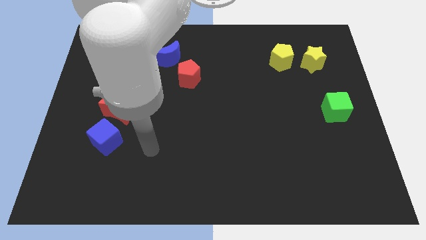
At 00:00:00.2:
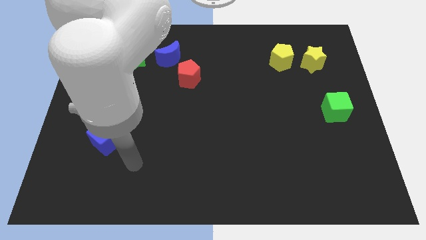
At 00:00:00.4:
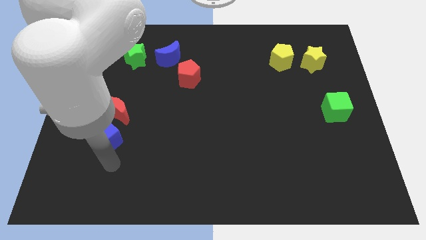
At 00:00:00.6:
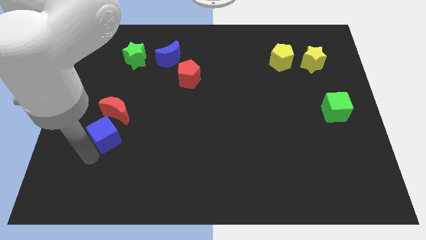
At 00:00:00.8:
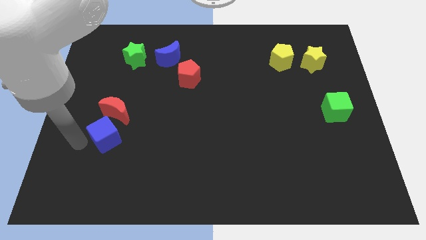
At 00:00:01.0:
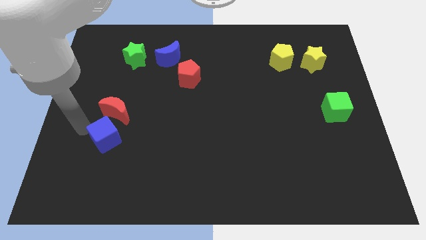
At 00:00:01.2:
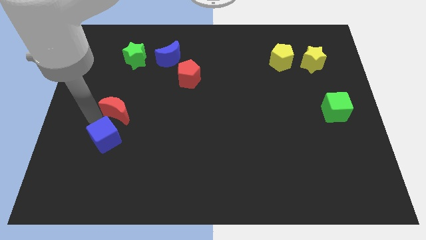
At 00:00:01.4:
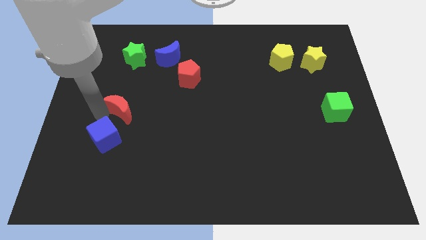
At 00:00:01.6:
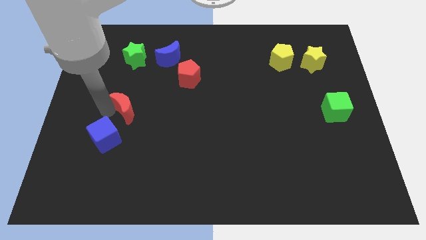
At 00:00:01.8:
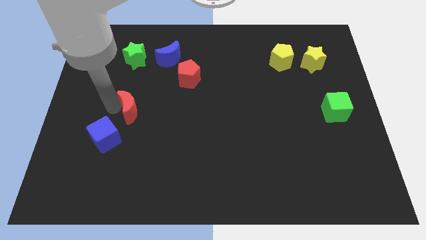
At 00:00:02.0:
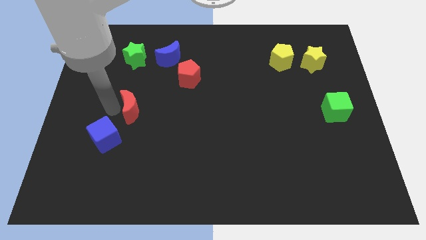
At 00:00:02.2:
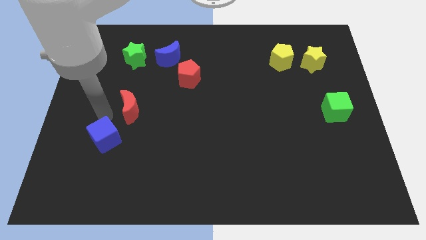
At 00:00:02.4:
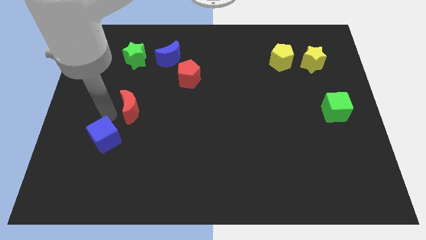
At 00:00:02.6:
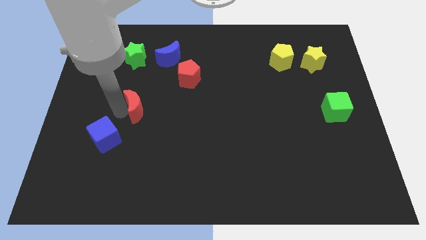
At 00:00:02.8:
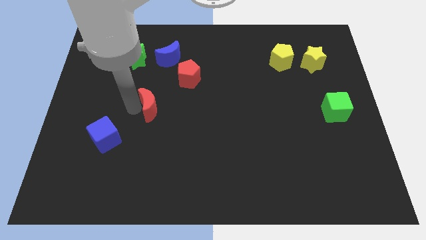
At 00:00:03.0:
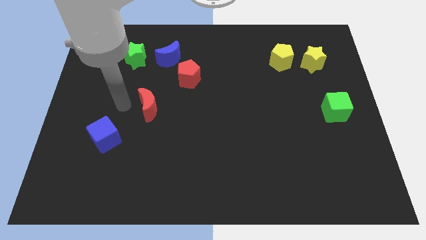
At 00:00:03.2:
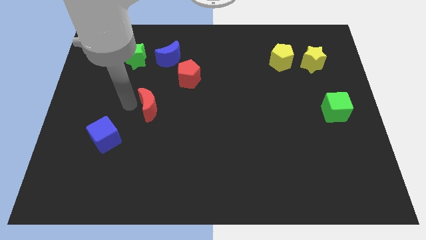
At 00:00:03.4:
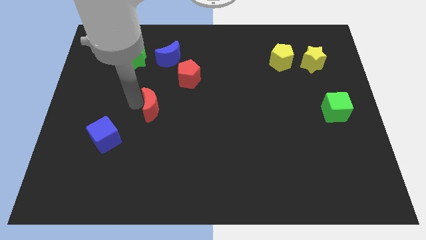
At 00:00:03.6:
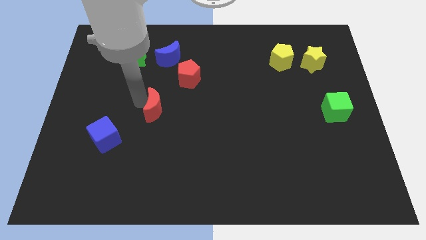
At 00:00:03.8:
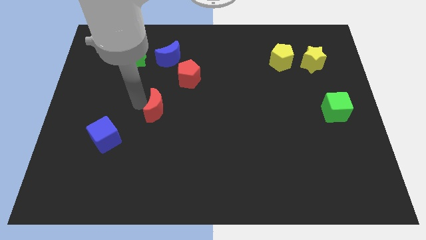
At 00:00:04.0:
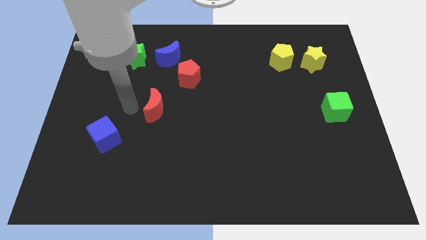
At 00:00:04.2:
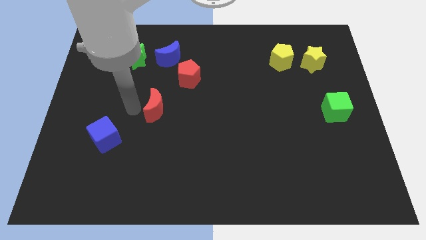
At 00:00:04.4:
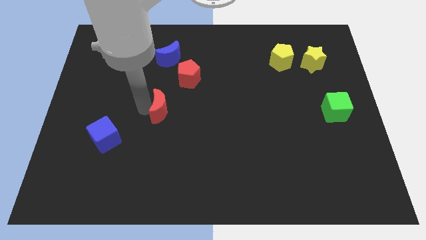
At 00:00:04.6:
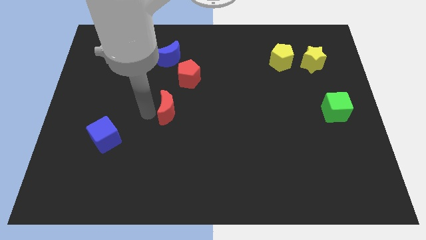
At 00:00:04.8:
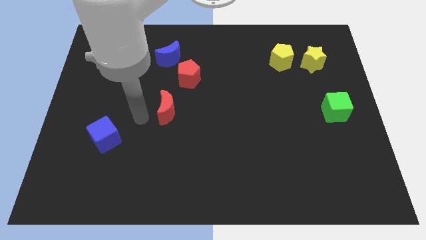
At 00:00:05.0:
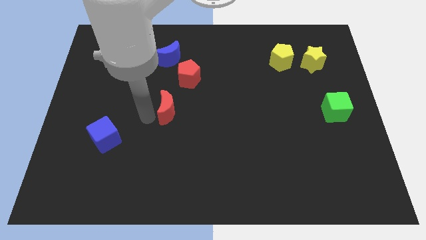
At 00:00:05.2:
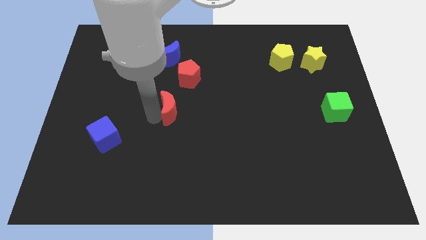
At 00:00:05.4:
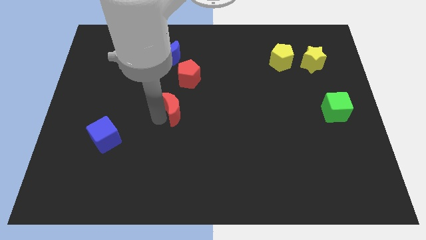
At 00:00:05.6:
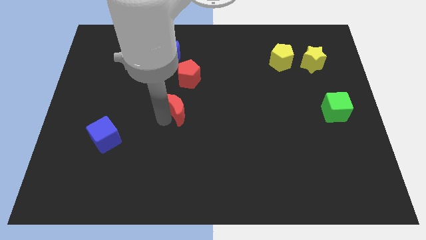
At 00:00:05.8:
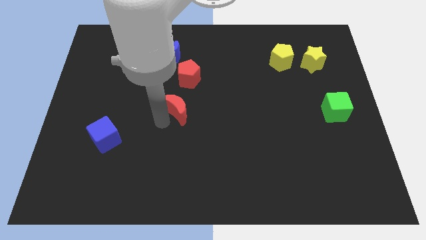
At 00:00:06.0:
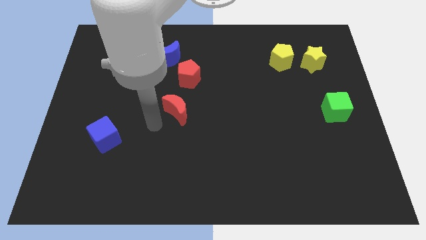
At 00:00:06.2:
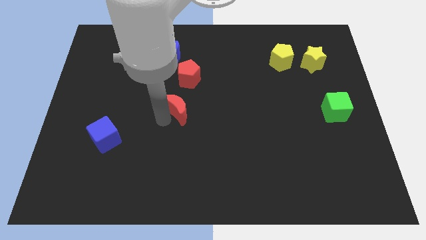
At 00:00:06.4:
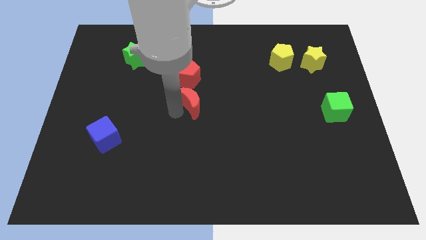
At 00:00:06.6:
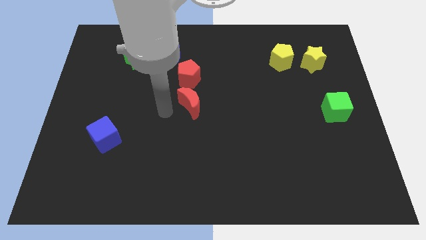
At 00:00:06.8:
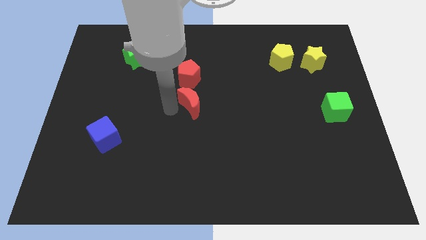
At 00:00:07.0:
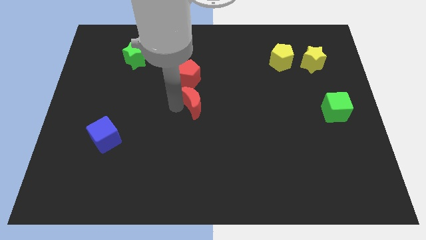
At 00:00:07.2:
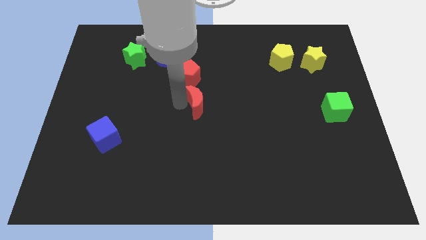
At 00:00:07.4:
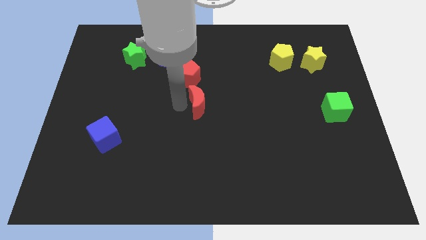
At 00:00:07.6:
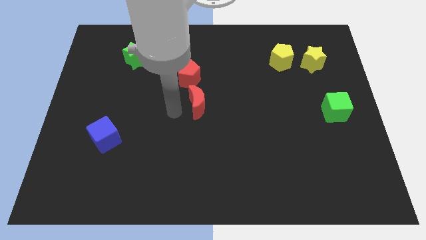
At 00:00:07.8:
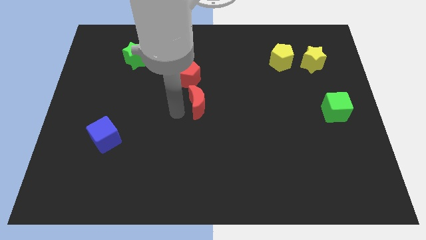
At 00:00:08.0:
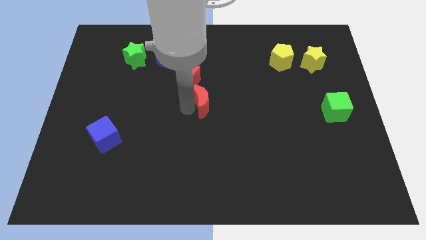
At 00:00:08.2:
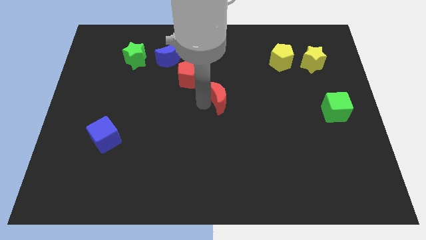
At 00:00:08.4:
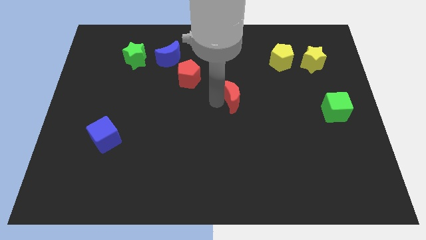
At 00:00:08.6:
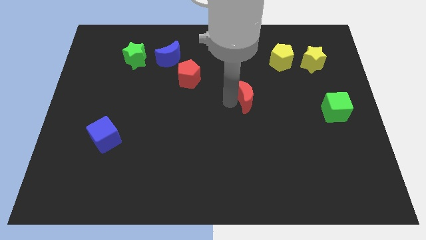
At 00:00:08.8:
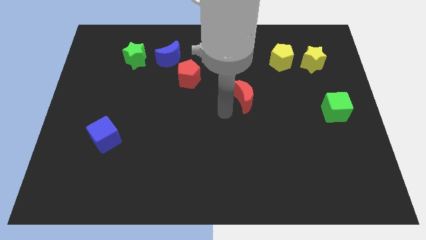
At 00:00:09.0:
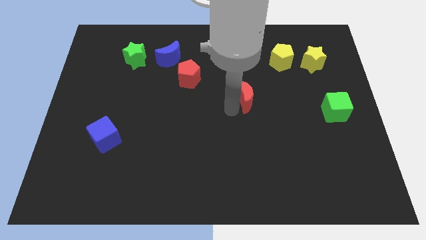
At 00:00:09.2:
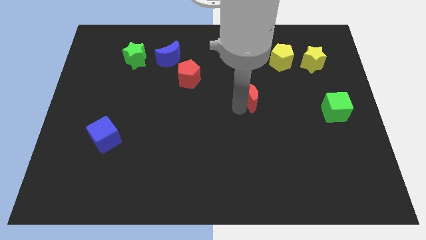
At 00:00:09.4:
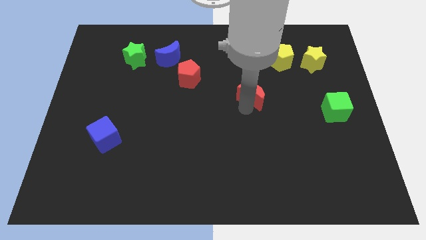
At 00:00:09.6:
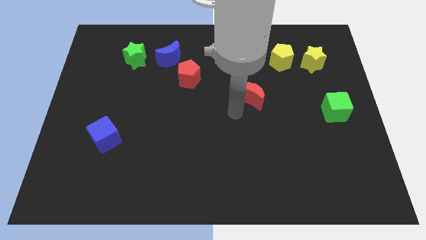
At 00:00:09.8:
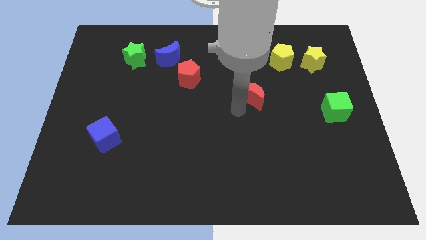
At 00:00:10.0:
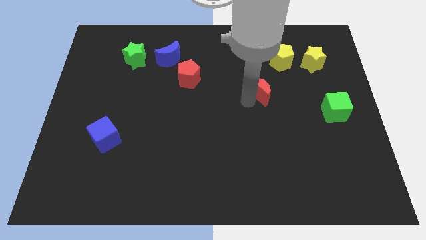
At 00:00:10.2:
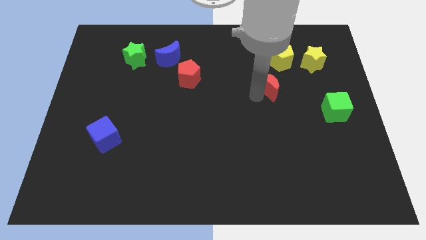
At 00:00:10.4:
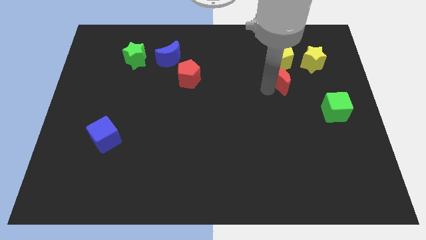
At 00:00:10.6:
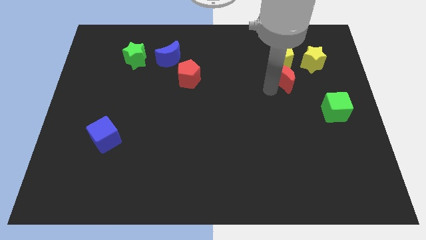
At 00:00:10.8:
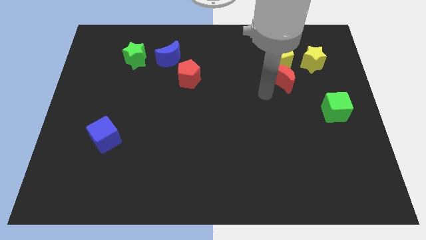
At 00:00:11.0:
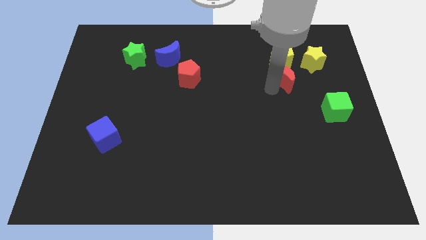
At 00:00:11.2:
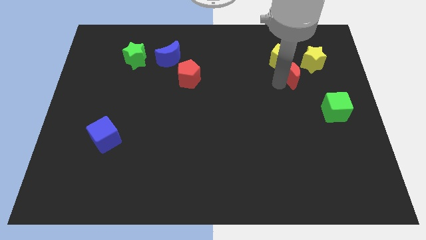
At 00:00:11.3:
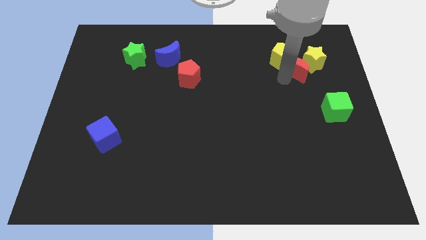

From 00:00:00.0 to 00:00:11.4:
push the red moon towards the yellow star

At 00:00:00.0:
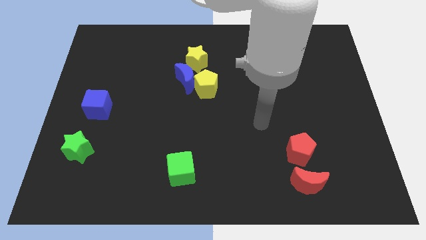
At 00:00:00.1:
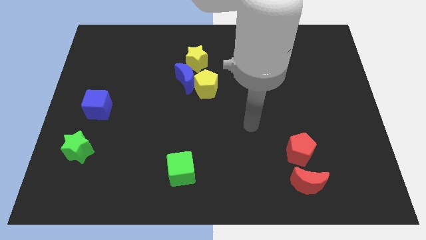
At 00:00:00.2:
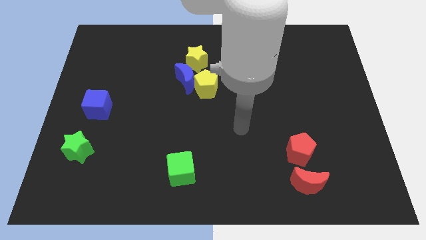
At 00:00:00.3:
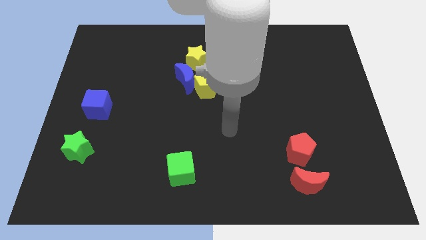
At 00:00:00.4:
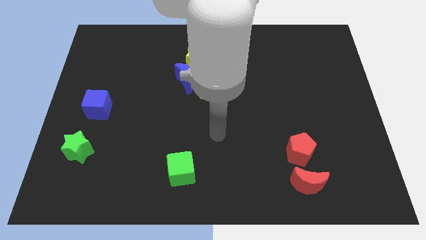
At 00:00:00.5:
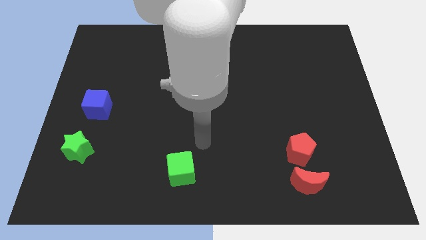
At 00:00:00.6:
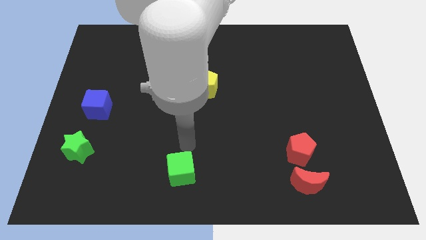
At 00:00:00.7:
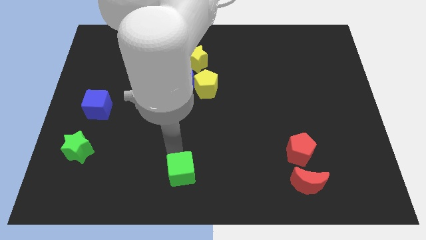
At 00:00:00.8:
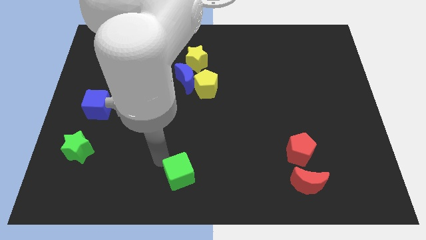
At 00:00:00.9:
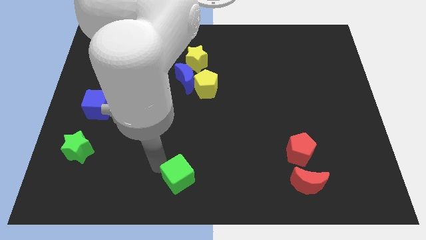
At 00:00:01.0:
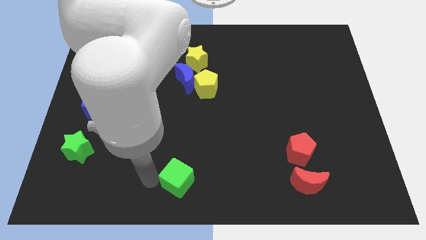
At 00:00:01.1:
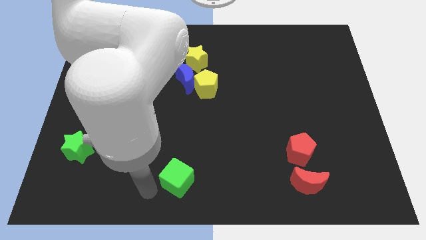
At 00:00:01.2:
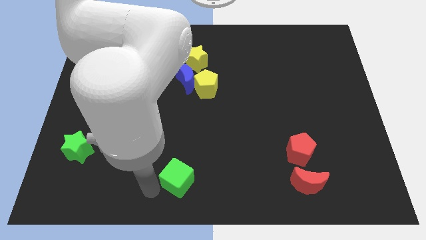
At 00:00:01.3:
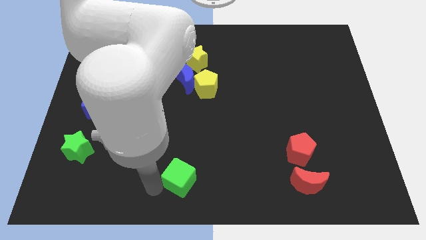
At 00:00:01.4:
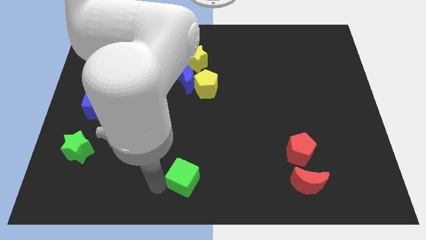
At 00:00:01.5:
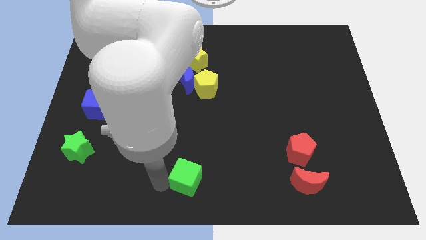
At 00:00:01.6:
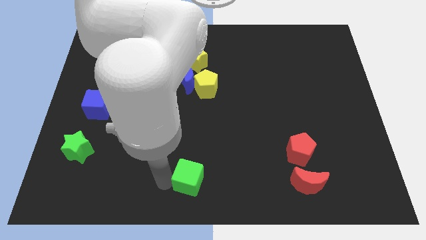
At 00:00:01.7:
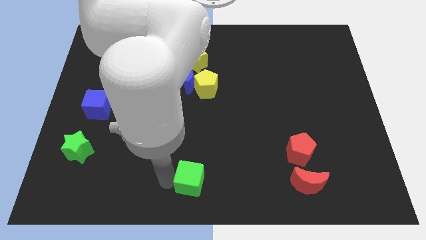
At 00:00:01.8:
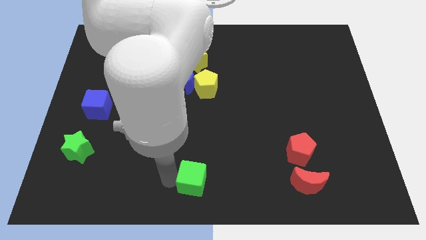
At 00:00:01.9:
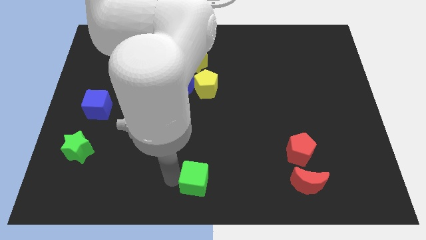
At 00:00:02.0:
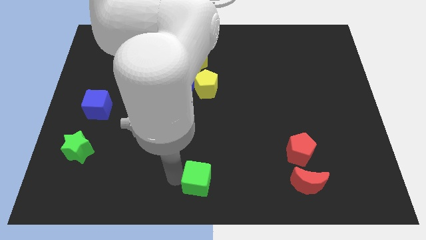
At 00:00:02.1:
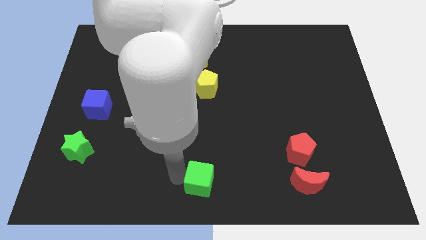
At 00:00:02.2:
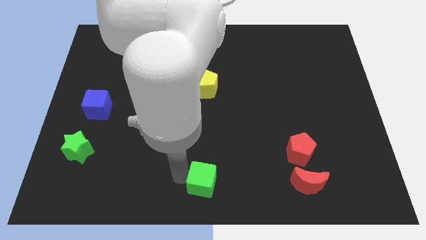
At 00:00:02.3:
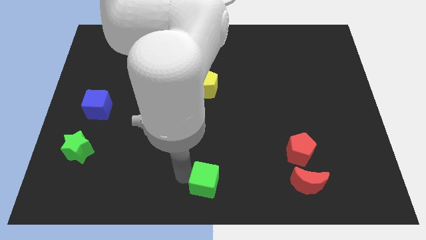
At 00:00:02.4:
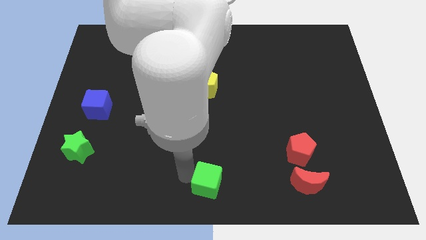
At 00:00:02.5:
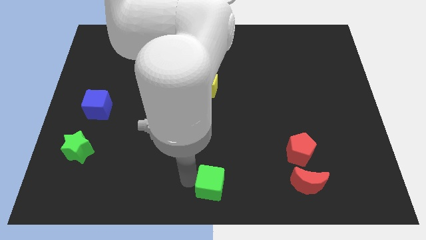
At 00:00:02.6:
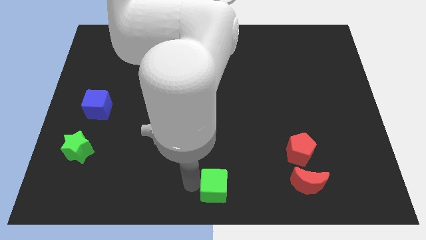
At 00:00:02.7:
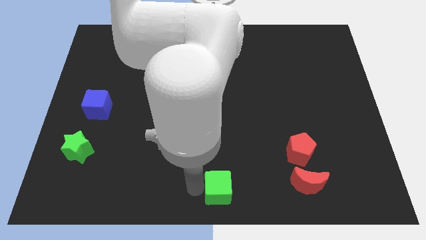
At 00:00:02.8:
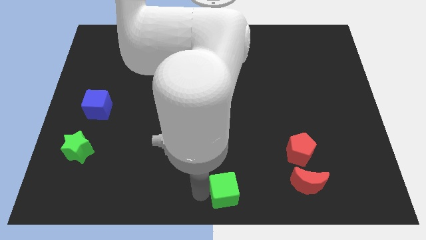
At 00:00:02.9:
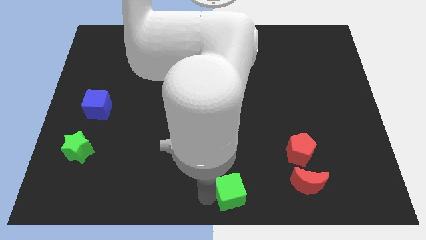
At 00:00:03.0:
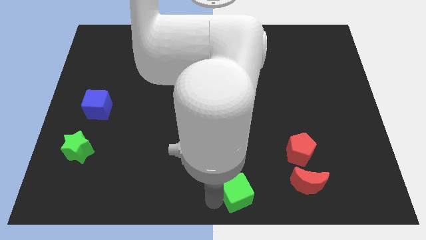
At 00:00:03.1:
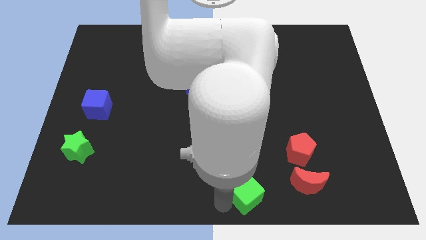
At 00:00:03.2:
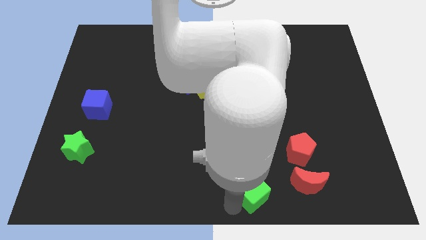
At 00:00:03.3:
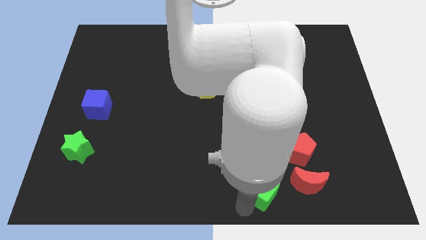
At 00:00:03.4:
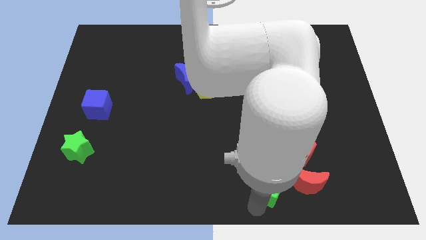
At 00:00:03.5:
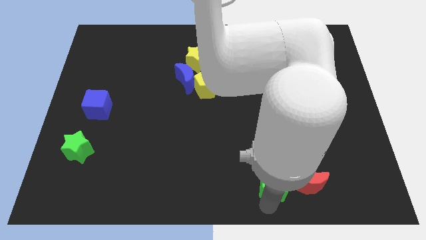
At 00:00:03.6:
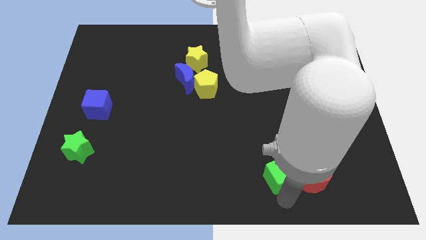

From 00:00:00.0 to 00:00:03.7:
put the green cube to the red moon
